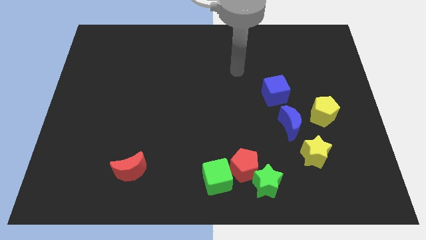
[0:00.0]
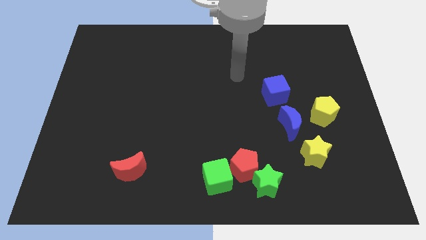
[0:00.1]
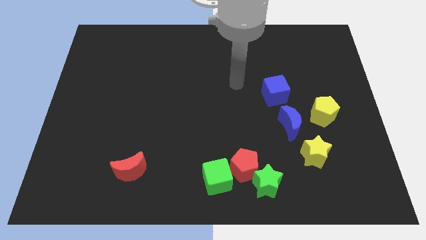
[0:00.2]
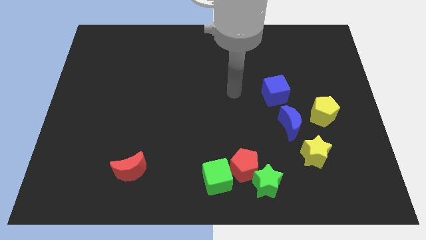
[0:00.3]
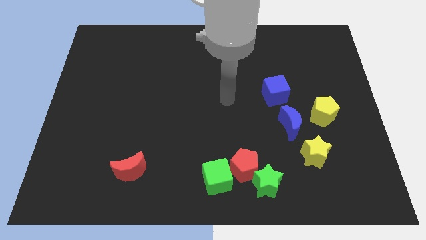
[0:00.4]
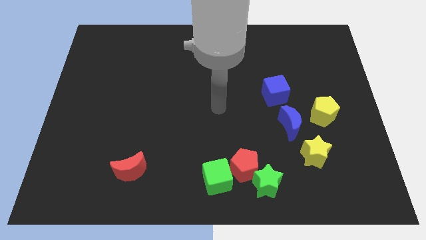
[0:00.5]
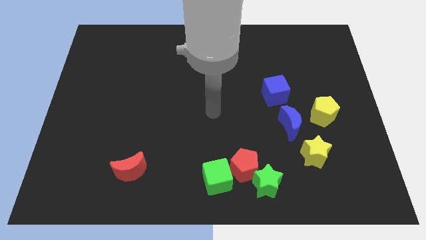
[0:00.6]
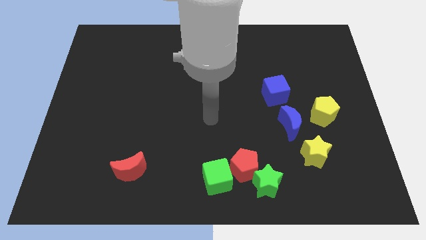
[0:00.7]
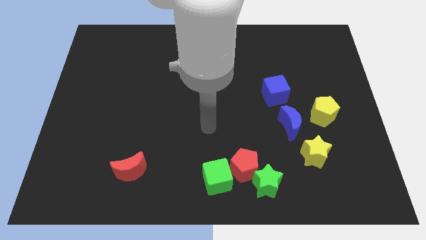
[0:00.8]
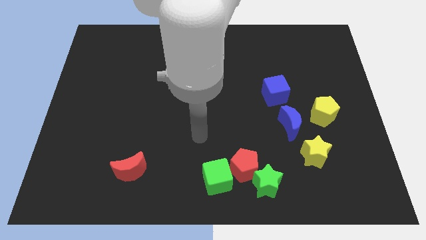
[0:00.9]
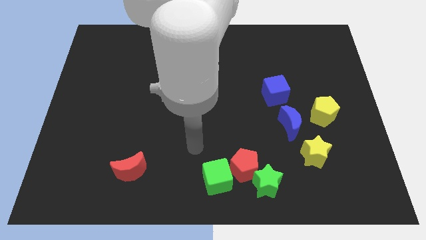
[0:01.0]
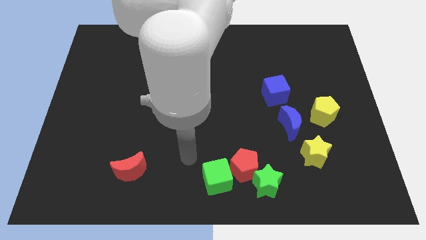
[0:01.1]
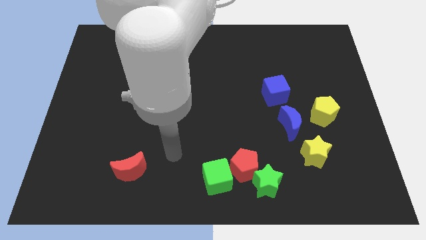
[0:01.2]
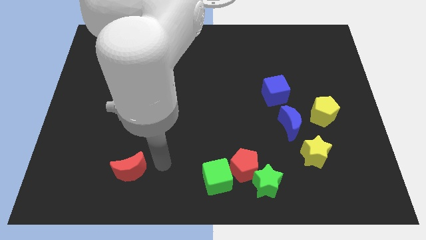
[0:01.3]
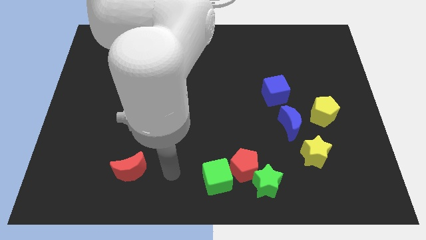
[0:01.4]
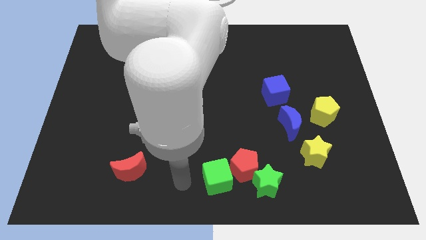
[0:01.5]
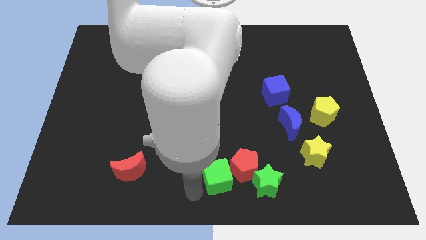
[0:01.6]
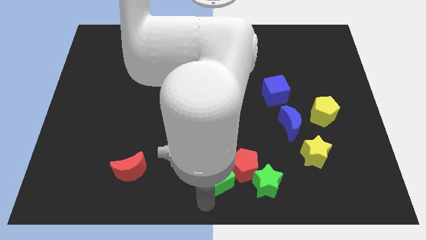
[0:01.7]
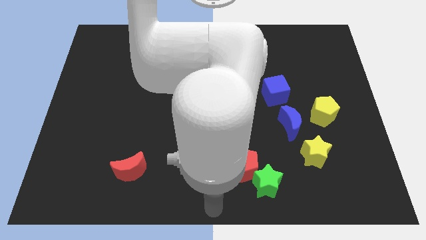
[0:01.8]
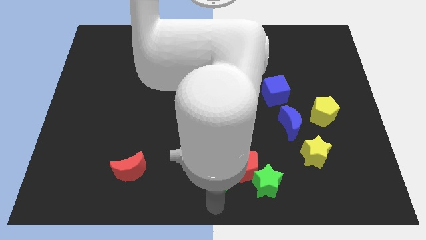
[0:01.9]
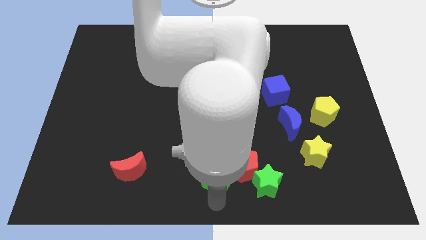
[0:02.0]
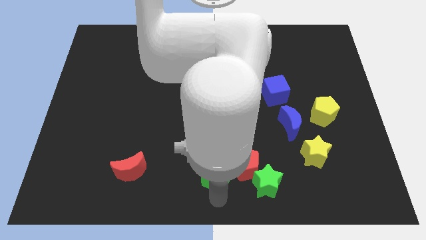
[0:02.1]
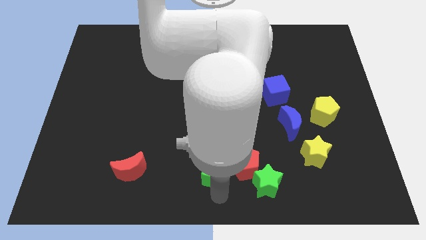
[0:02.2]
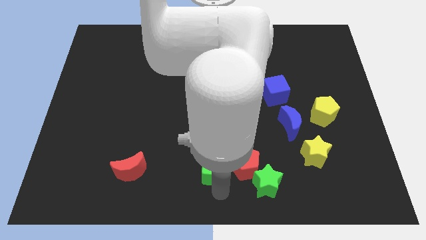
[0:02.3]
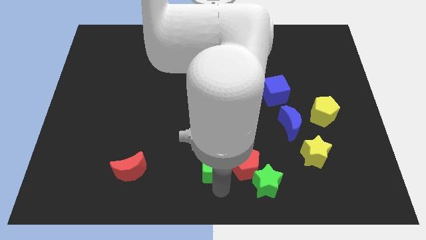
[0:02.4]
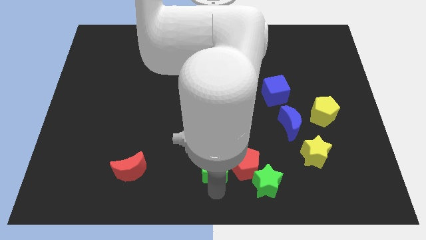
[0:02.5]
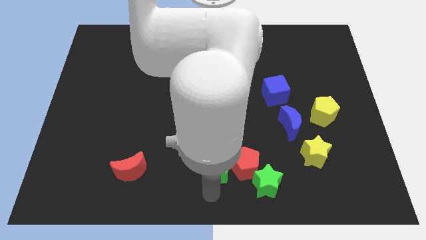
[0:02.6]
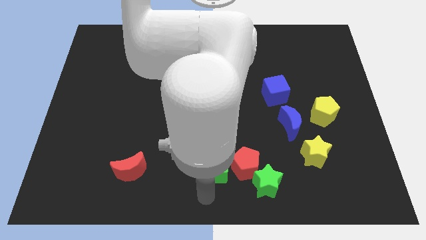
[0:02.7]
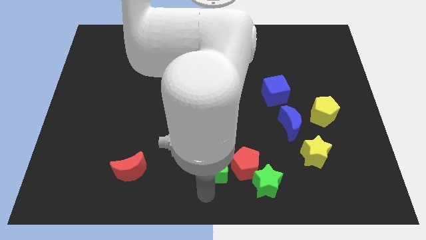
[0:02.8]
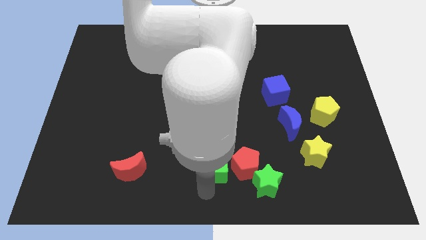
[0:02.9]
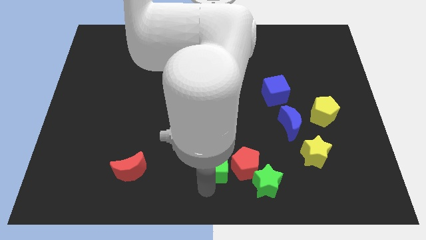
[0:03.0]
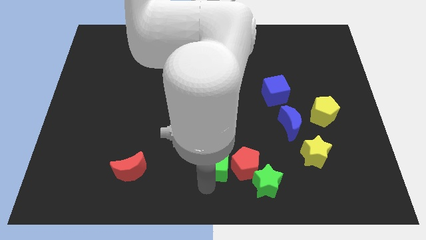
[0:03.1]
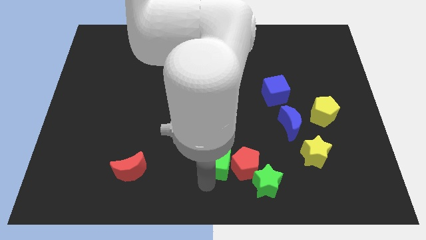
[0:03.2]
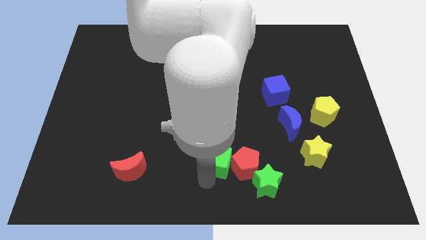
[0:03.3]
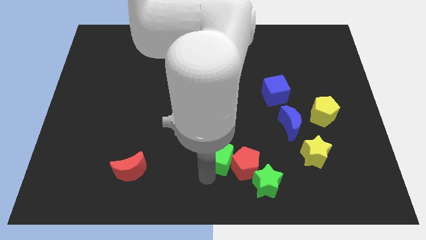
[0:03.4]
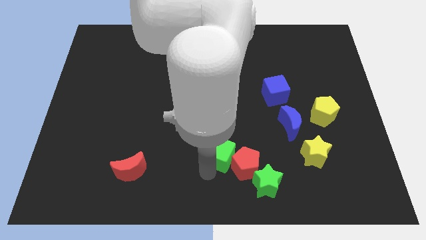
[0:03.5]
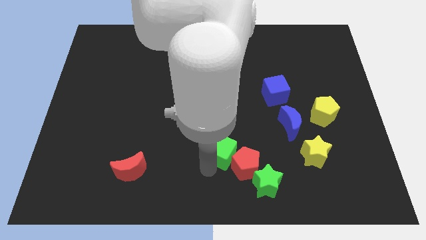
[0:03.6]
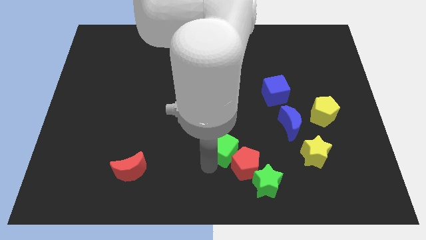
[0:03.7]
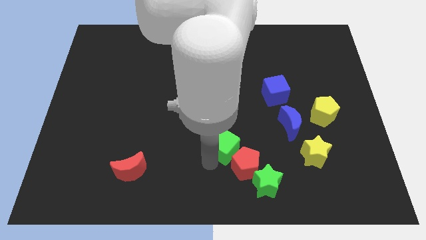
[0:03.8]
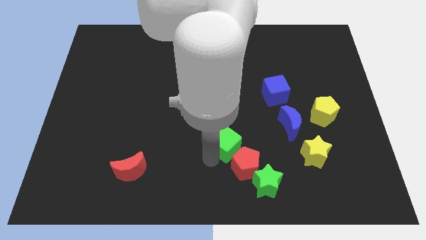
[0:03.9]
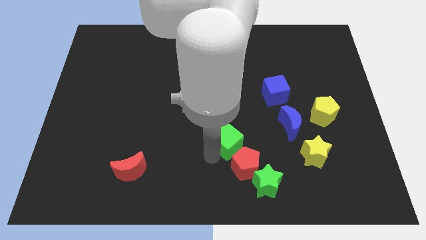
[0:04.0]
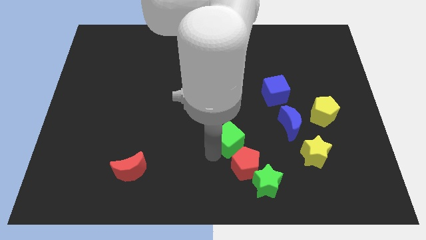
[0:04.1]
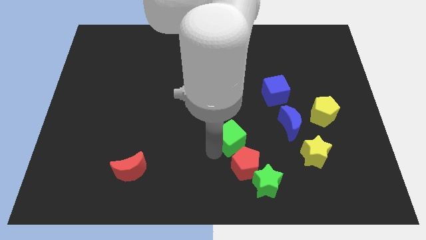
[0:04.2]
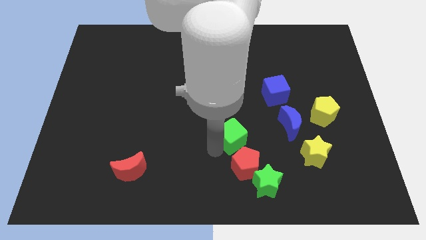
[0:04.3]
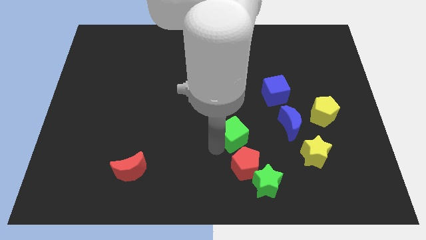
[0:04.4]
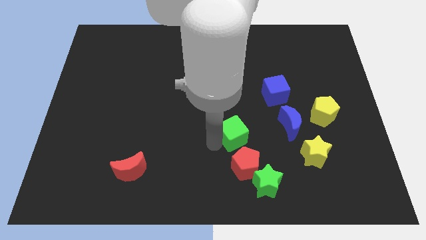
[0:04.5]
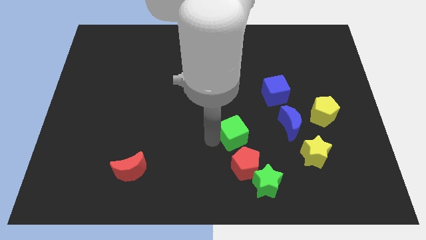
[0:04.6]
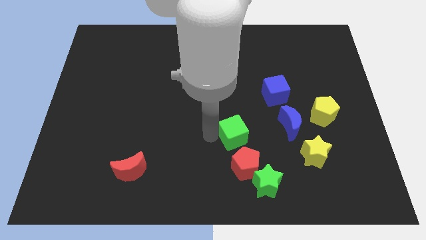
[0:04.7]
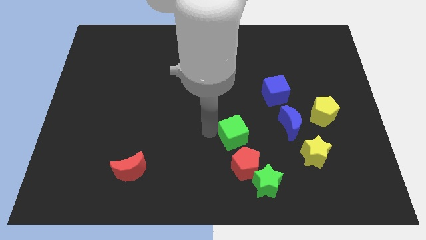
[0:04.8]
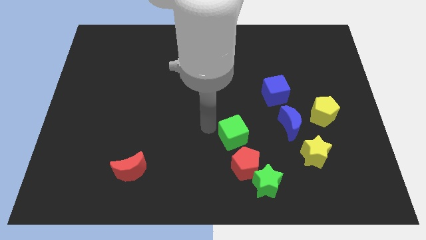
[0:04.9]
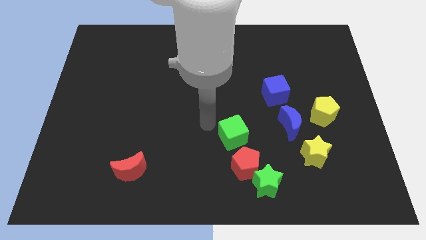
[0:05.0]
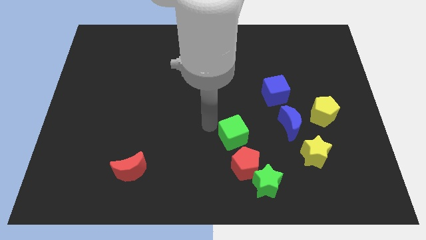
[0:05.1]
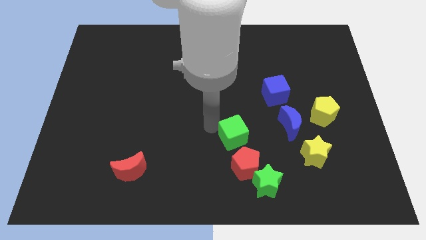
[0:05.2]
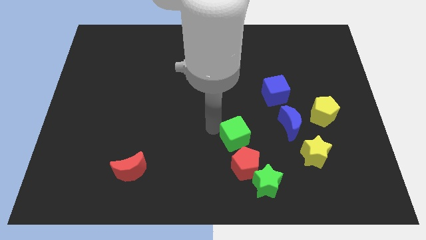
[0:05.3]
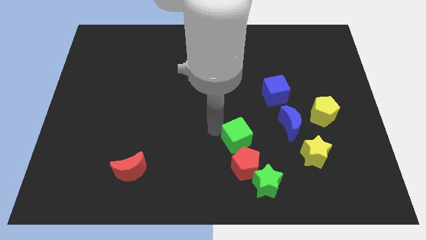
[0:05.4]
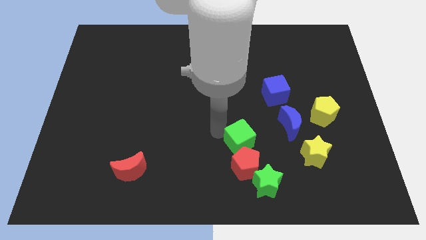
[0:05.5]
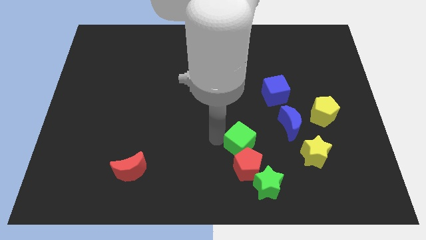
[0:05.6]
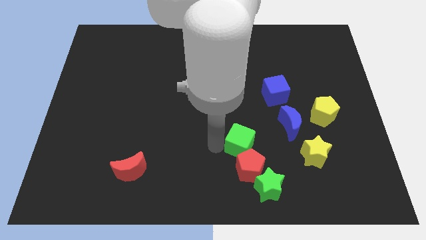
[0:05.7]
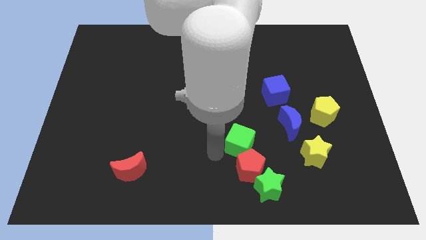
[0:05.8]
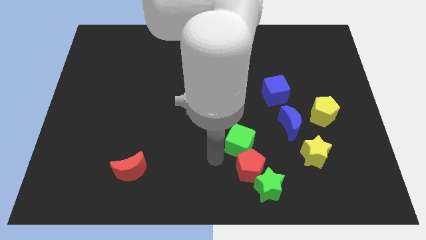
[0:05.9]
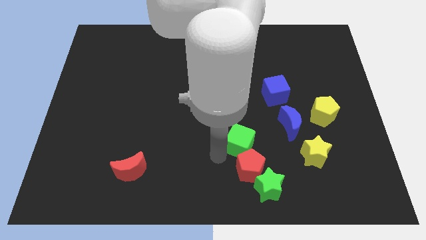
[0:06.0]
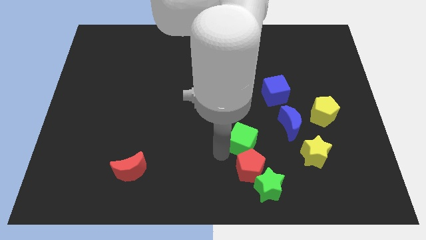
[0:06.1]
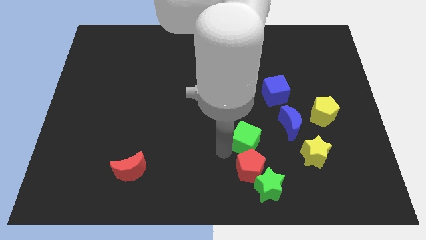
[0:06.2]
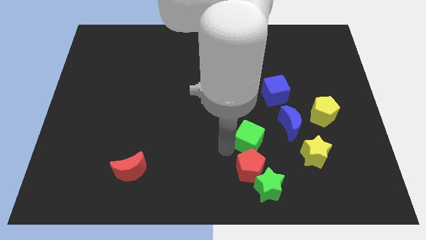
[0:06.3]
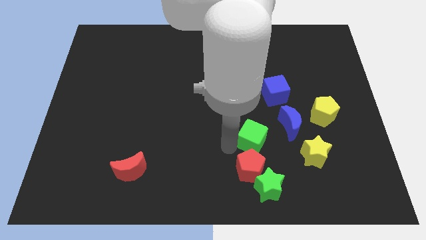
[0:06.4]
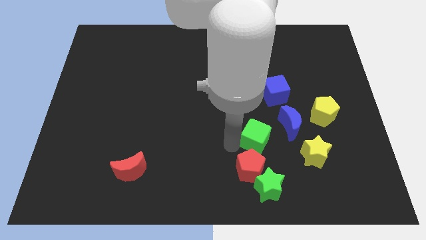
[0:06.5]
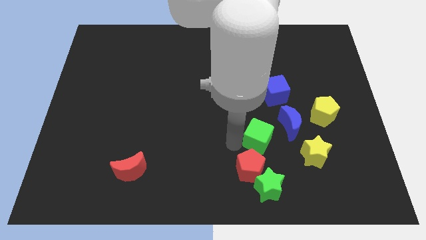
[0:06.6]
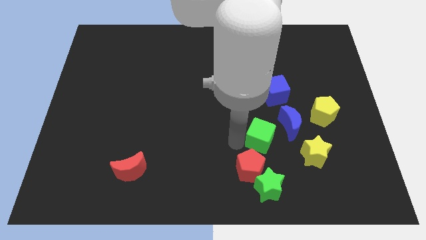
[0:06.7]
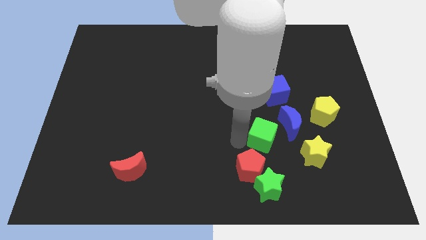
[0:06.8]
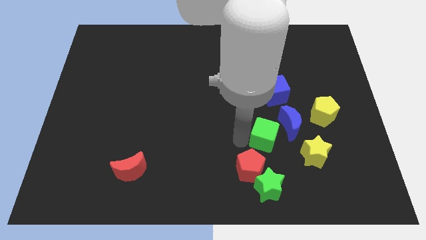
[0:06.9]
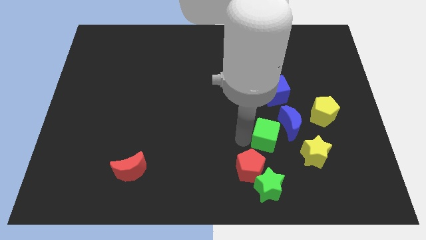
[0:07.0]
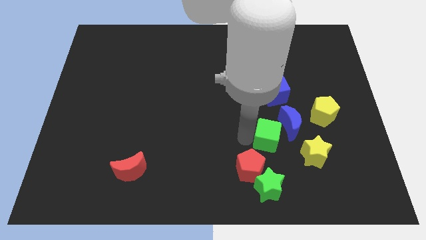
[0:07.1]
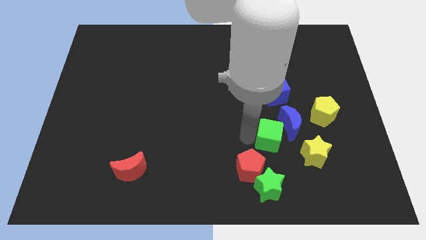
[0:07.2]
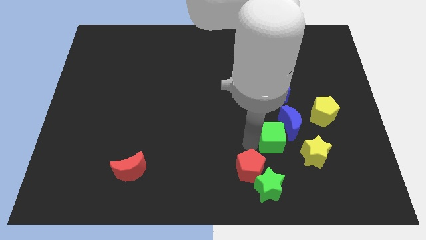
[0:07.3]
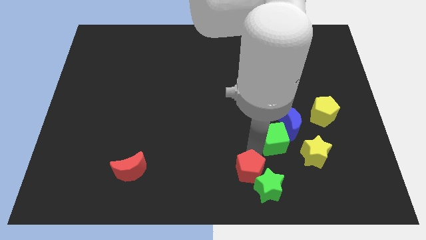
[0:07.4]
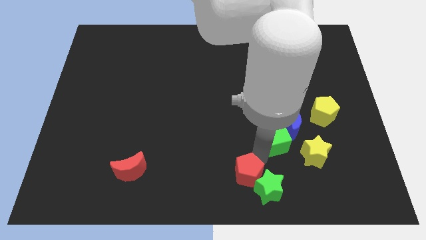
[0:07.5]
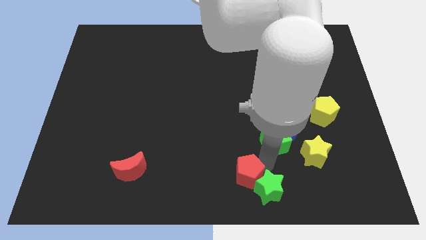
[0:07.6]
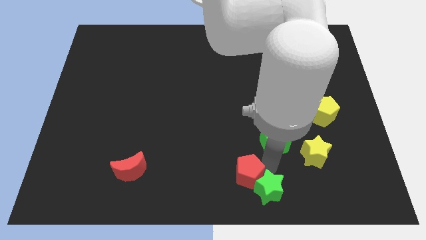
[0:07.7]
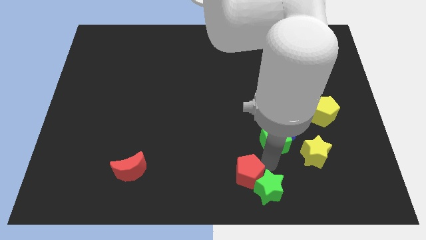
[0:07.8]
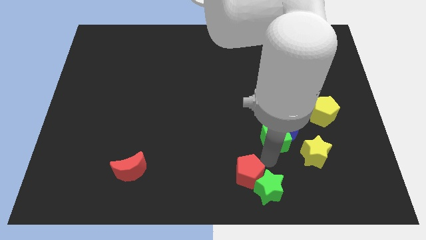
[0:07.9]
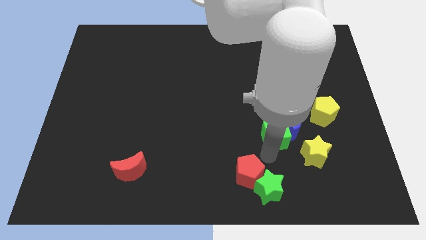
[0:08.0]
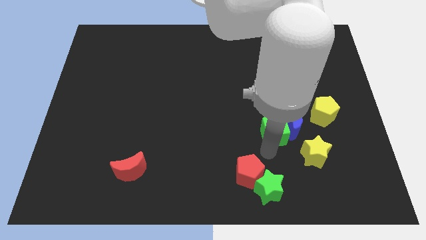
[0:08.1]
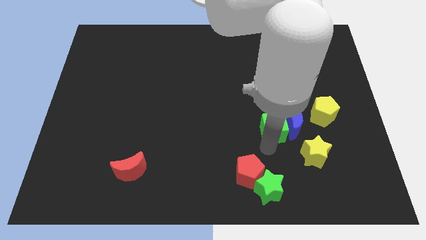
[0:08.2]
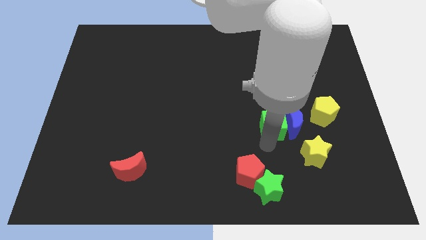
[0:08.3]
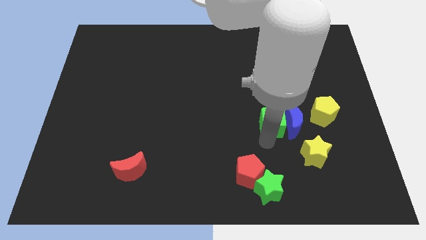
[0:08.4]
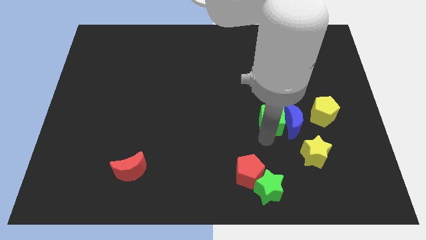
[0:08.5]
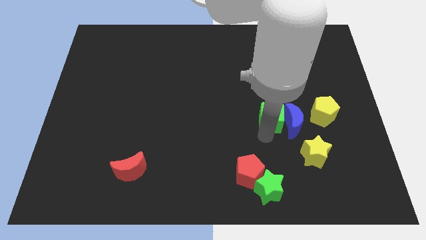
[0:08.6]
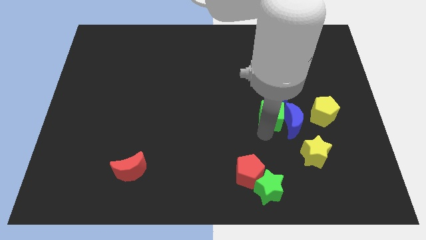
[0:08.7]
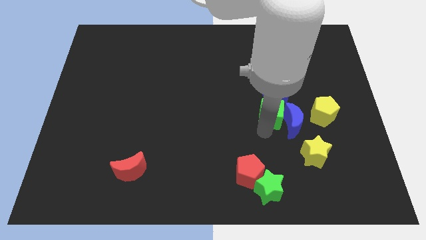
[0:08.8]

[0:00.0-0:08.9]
slide the green cube up and then right
